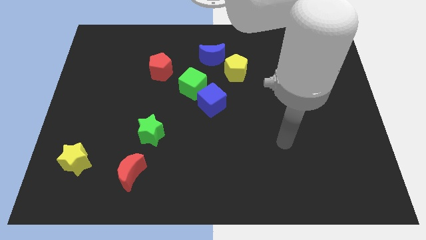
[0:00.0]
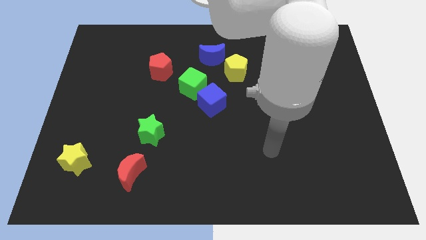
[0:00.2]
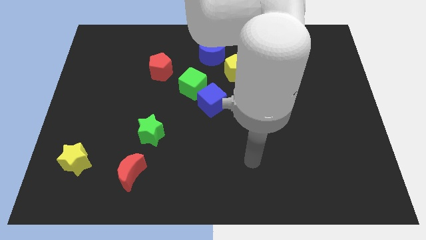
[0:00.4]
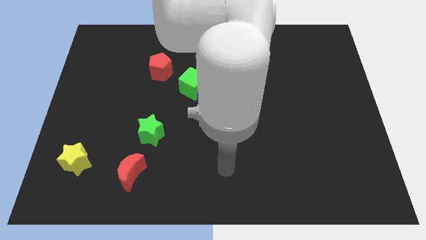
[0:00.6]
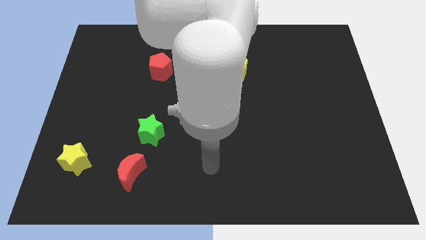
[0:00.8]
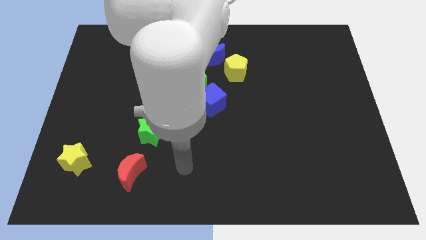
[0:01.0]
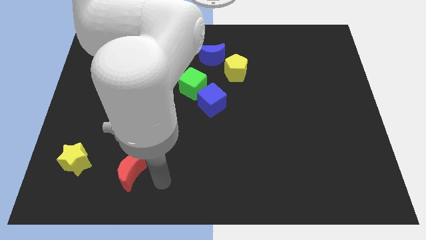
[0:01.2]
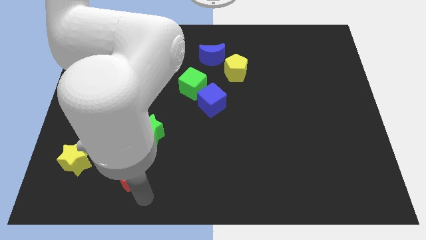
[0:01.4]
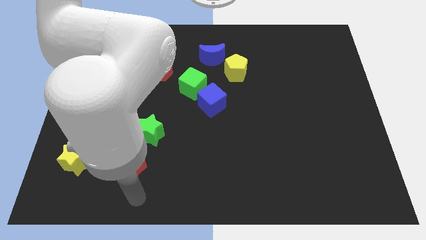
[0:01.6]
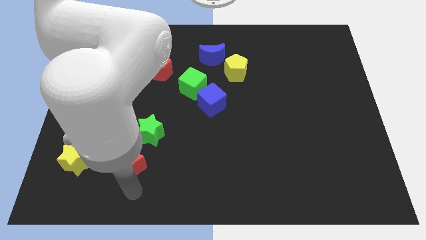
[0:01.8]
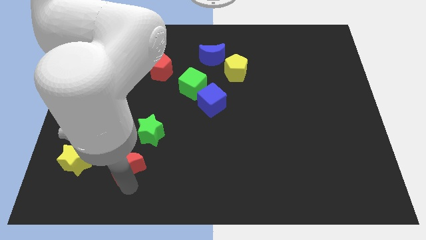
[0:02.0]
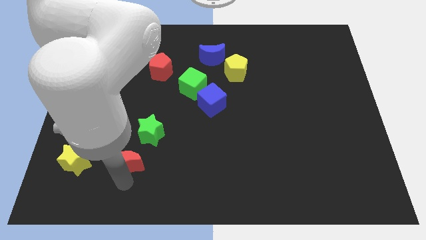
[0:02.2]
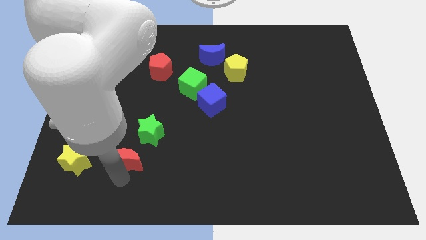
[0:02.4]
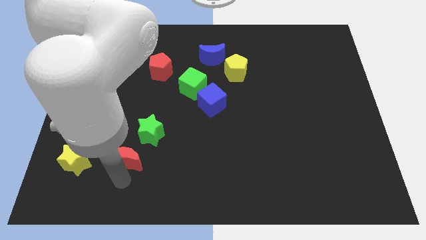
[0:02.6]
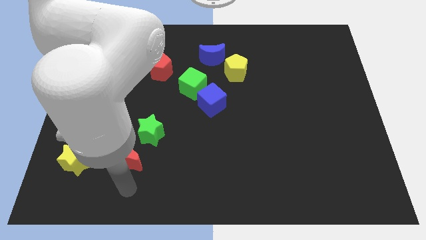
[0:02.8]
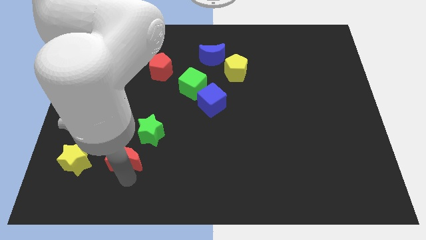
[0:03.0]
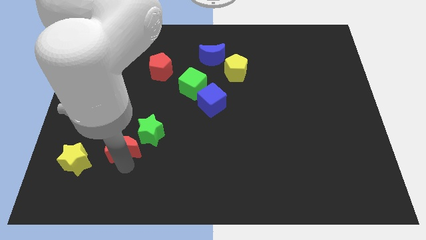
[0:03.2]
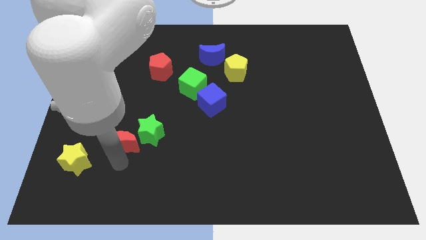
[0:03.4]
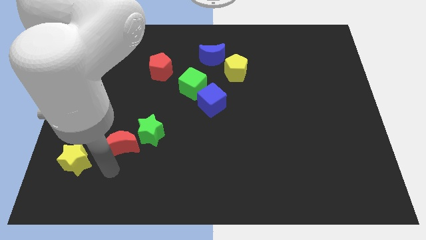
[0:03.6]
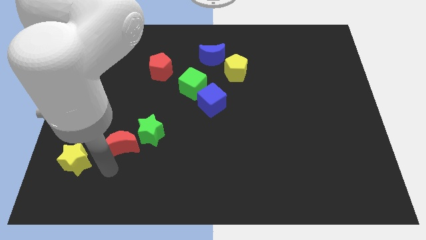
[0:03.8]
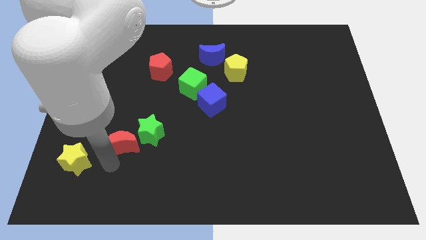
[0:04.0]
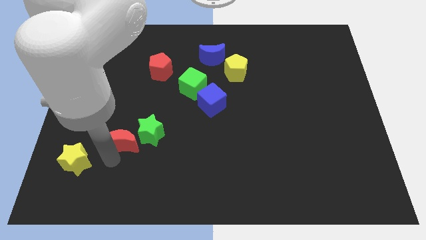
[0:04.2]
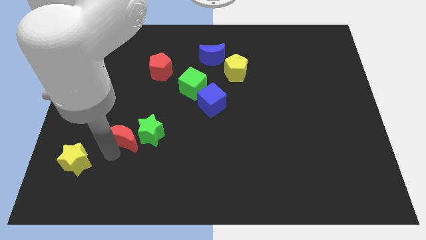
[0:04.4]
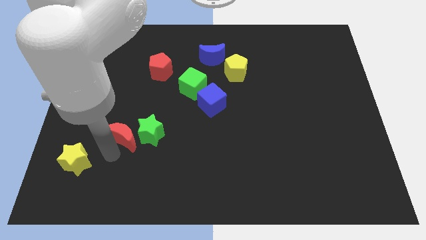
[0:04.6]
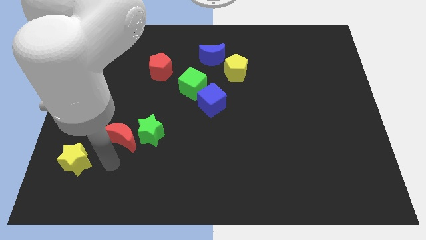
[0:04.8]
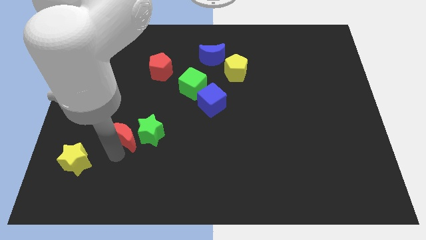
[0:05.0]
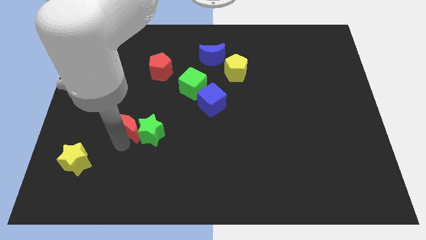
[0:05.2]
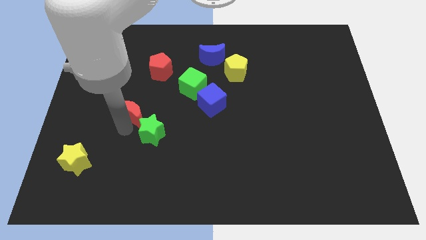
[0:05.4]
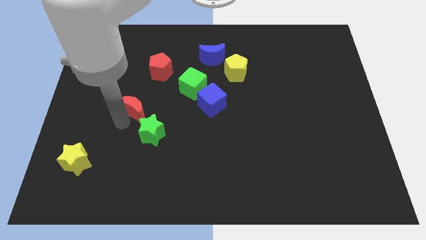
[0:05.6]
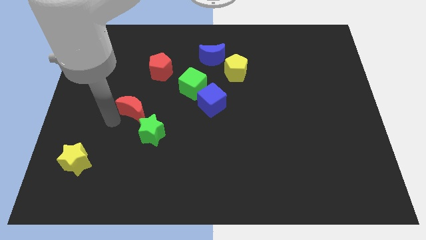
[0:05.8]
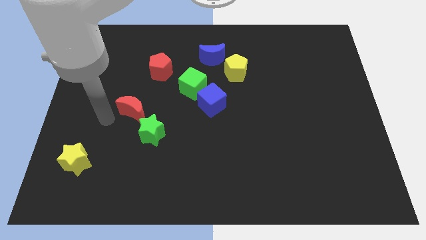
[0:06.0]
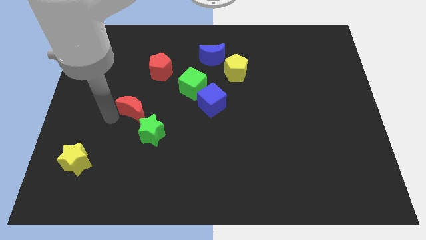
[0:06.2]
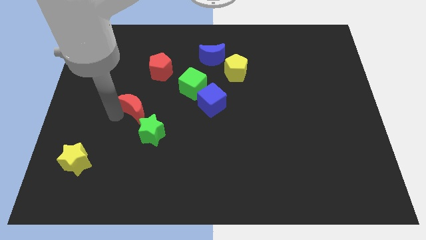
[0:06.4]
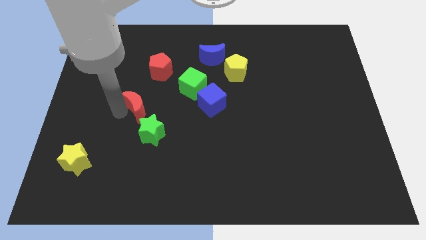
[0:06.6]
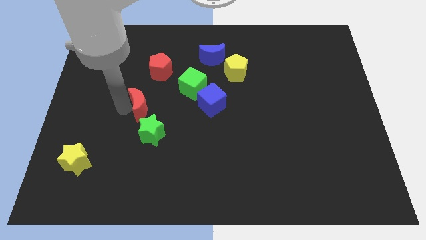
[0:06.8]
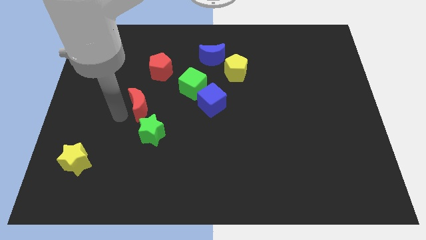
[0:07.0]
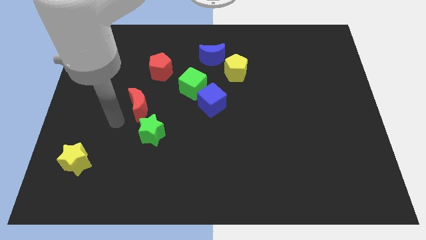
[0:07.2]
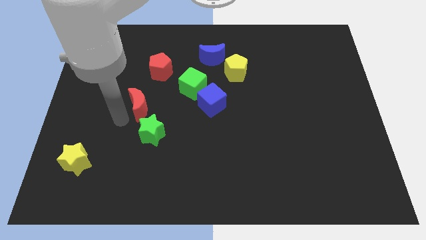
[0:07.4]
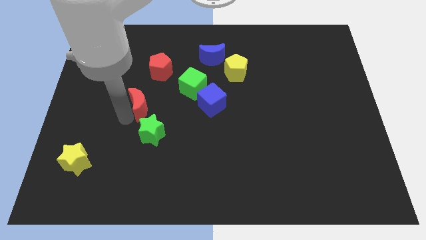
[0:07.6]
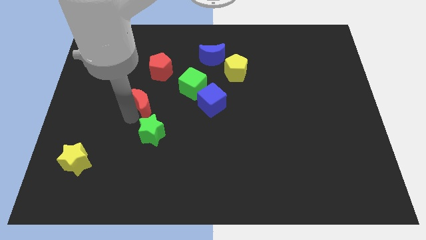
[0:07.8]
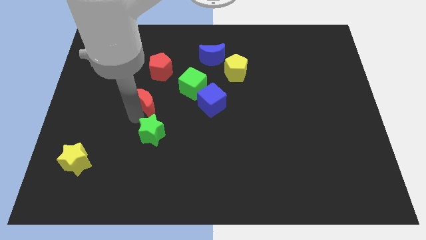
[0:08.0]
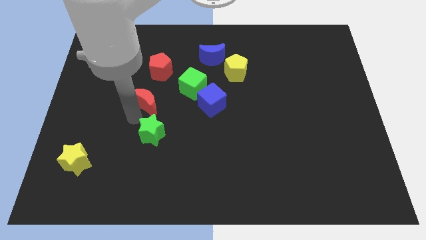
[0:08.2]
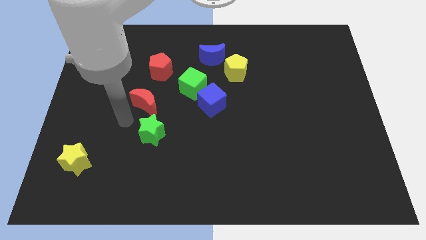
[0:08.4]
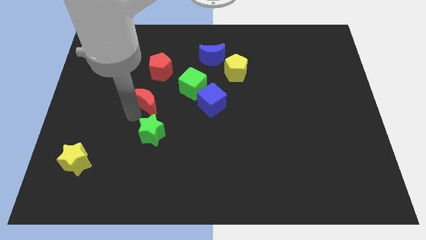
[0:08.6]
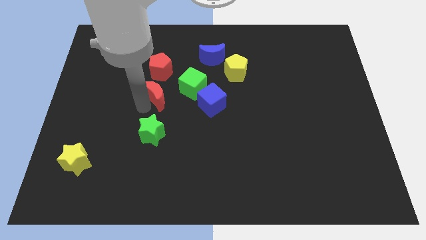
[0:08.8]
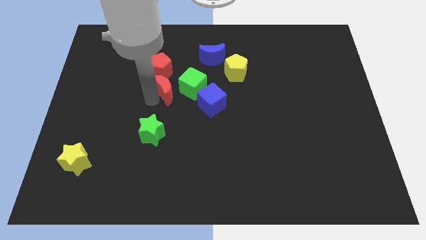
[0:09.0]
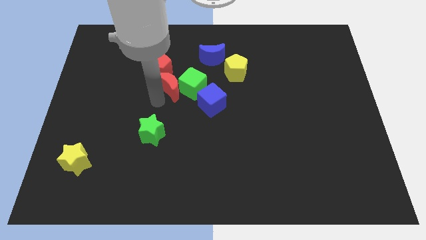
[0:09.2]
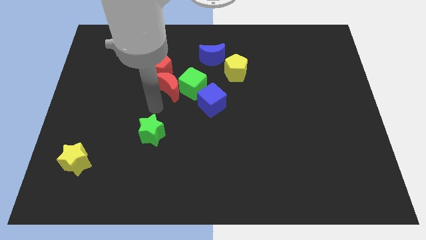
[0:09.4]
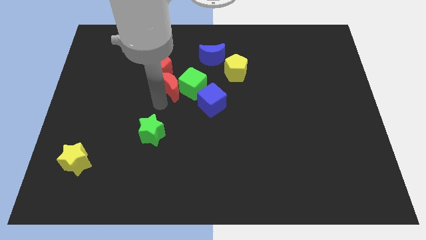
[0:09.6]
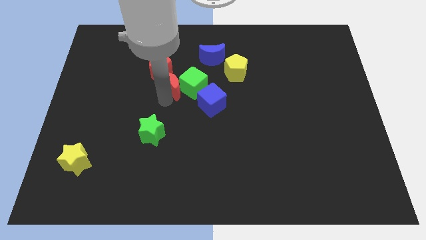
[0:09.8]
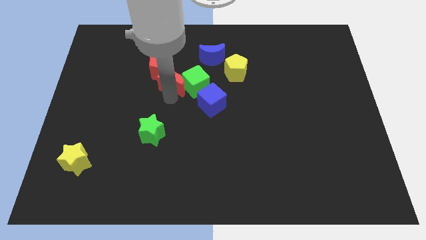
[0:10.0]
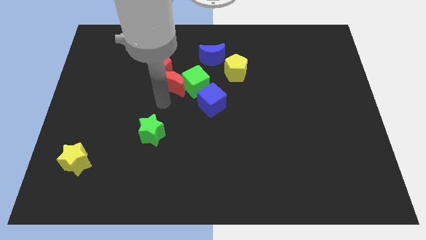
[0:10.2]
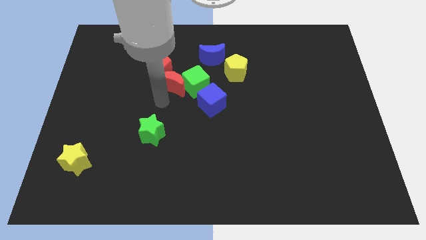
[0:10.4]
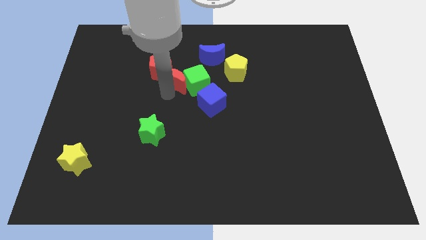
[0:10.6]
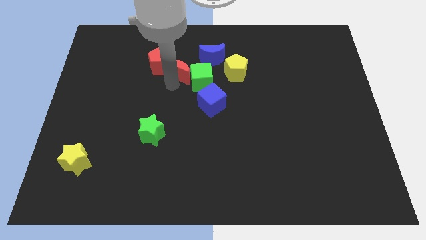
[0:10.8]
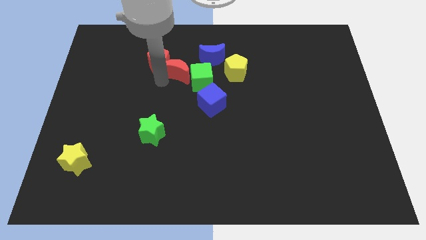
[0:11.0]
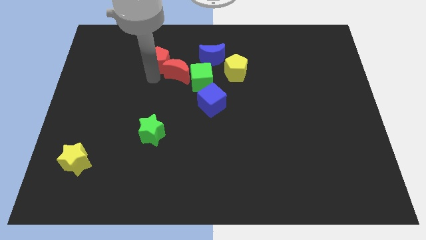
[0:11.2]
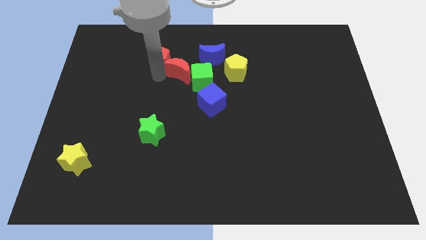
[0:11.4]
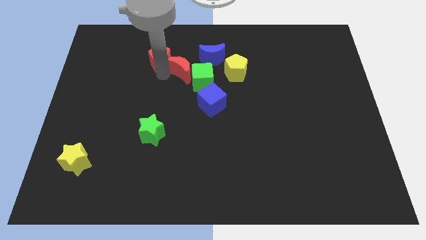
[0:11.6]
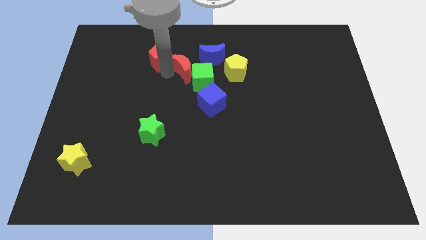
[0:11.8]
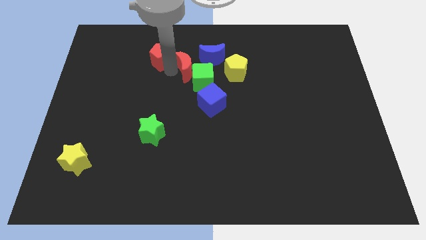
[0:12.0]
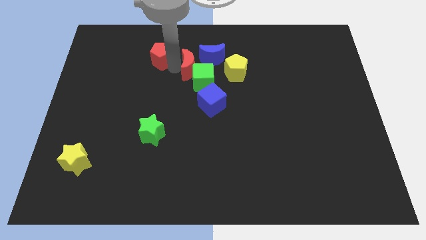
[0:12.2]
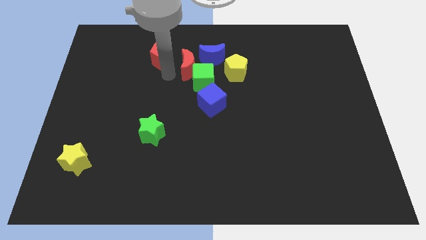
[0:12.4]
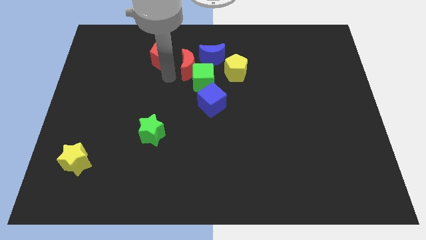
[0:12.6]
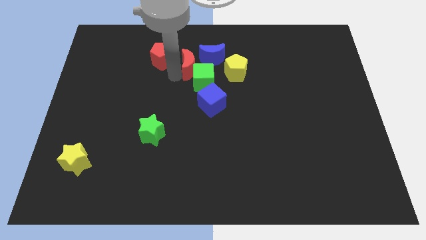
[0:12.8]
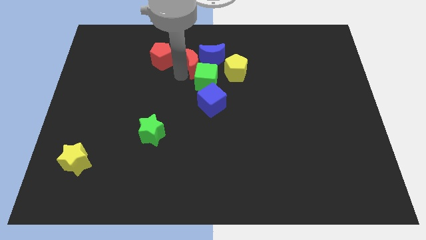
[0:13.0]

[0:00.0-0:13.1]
slide the red moon close to the blue moon
